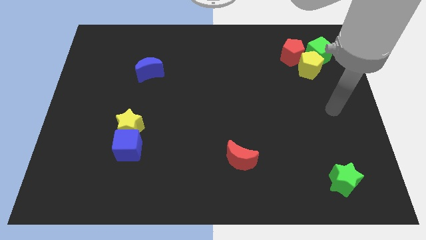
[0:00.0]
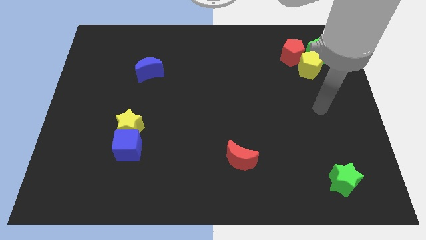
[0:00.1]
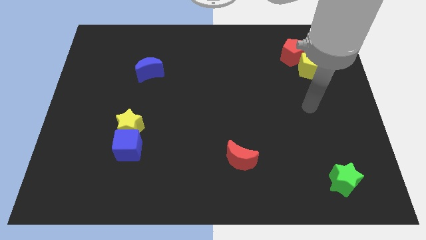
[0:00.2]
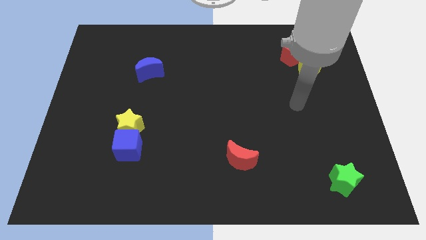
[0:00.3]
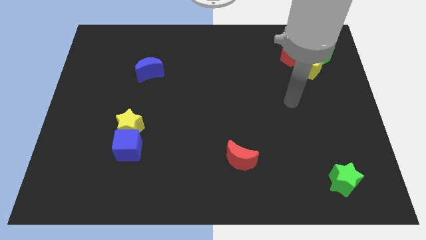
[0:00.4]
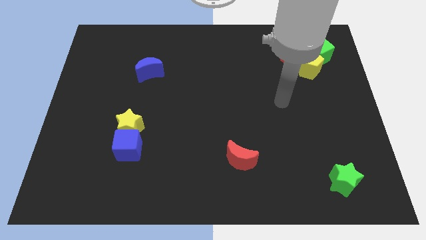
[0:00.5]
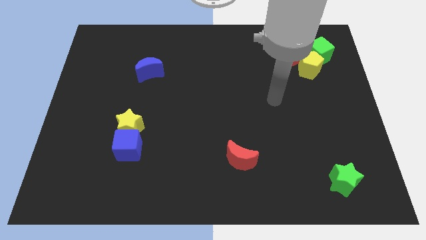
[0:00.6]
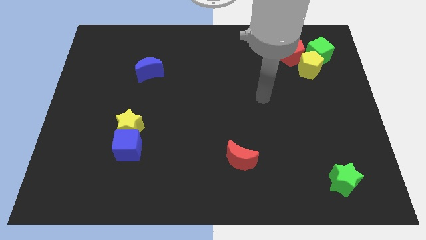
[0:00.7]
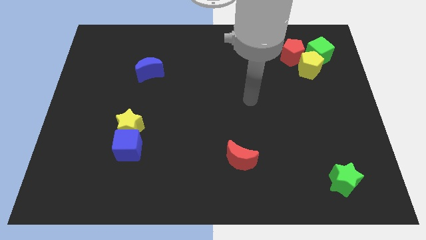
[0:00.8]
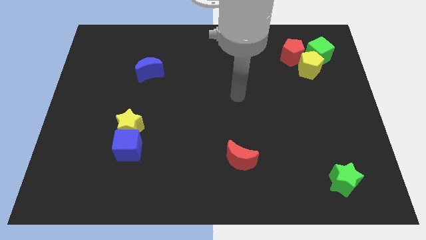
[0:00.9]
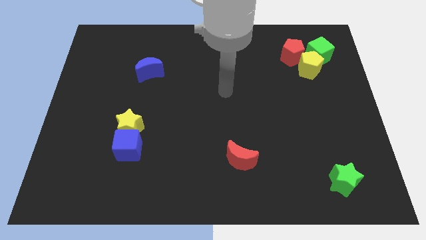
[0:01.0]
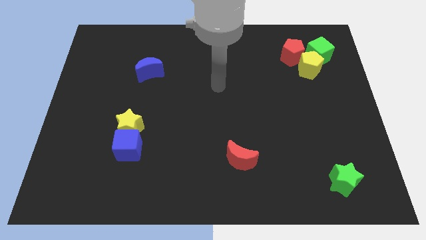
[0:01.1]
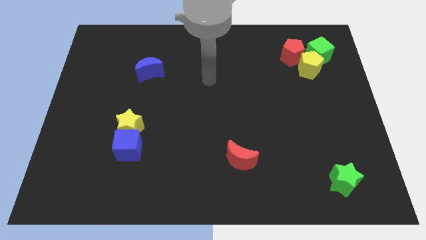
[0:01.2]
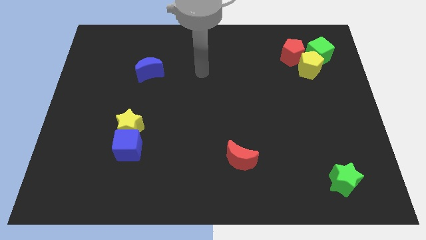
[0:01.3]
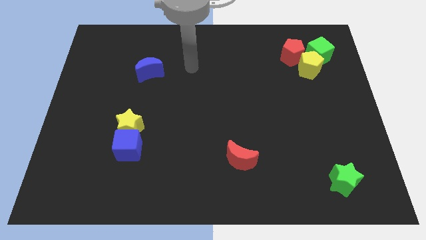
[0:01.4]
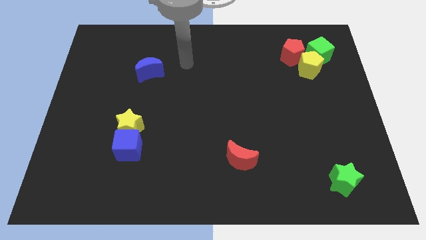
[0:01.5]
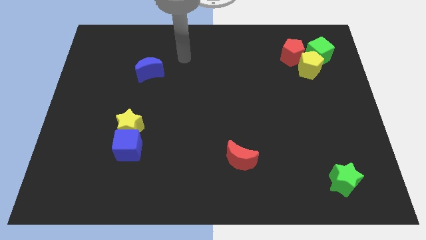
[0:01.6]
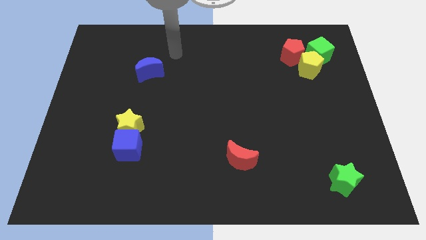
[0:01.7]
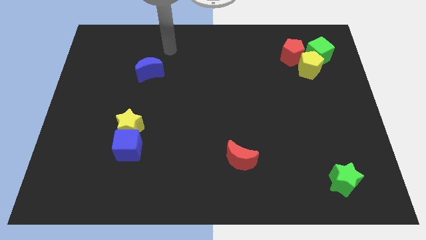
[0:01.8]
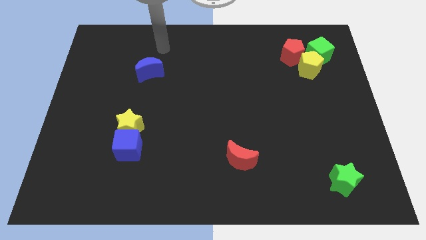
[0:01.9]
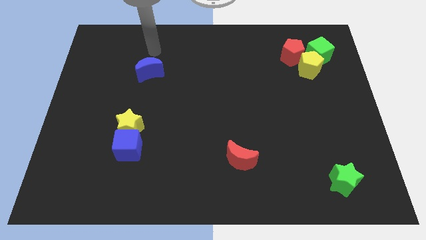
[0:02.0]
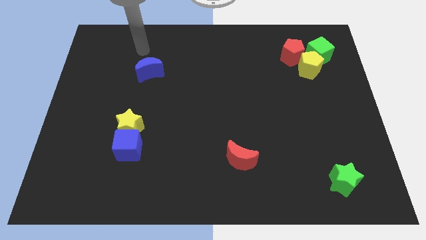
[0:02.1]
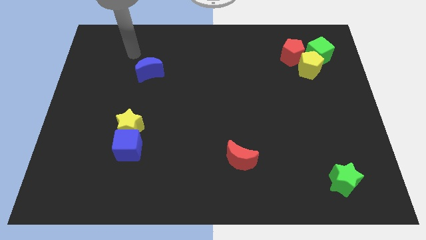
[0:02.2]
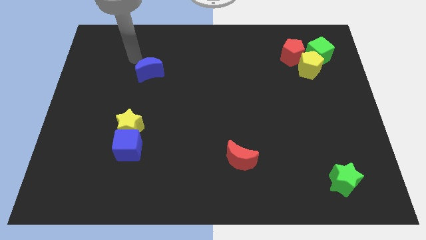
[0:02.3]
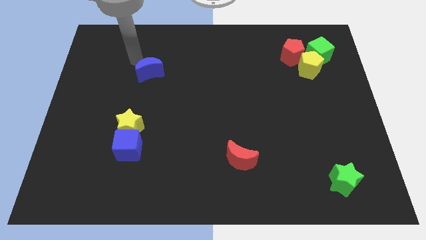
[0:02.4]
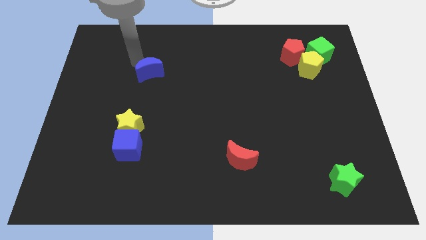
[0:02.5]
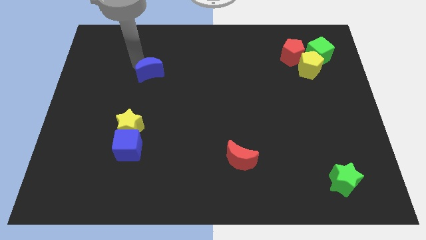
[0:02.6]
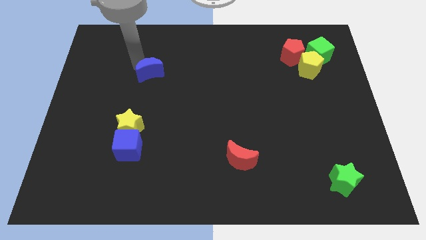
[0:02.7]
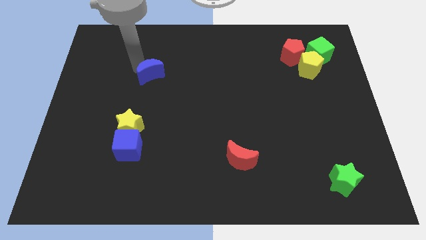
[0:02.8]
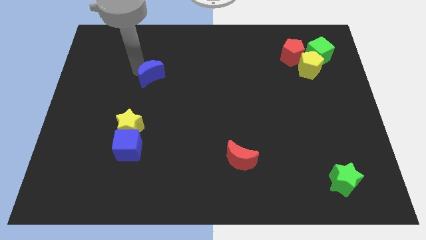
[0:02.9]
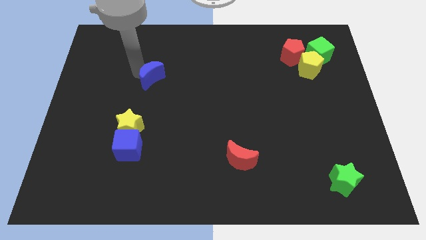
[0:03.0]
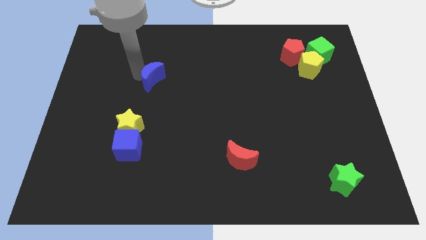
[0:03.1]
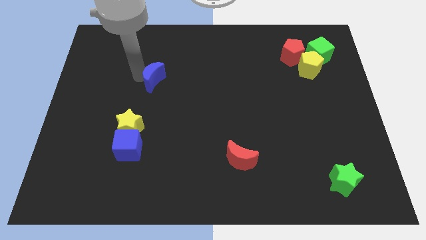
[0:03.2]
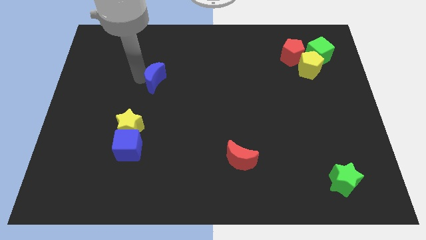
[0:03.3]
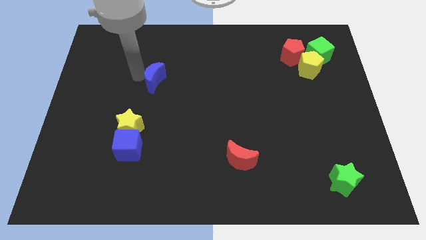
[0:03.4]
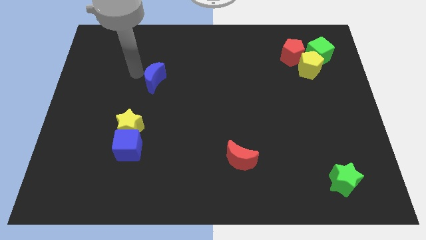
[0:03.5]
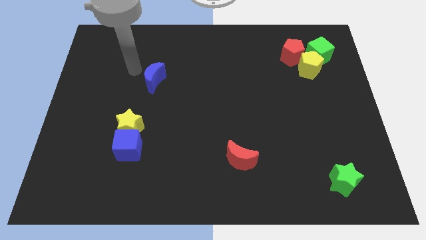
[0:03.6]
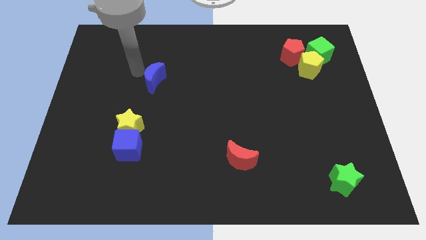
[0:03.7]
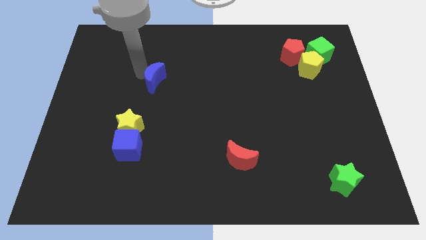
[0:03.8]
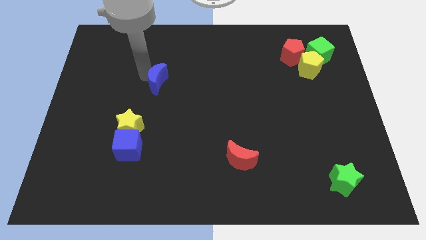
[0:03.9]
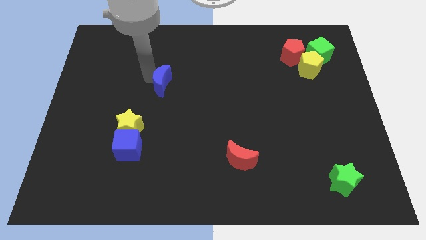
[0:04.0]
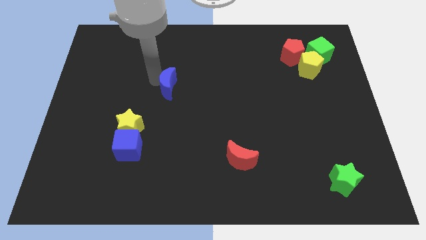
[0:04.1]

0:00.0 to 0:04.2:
push the blue moon down and to the right a bit

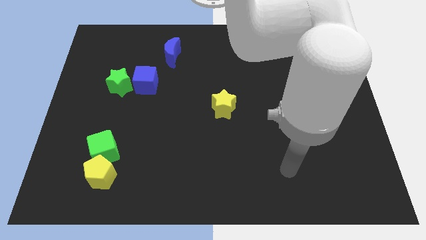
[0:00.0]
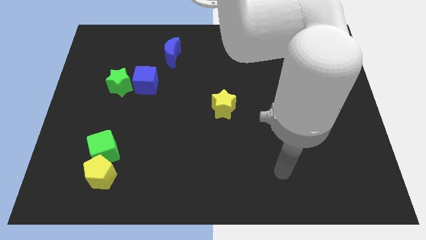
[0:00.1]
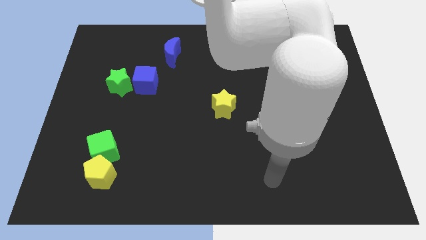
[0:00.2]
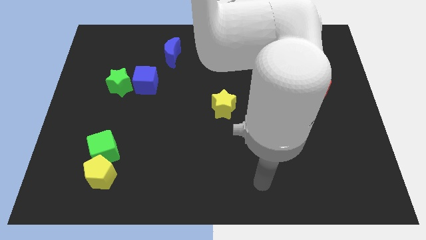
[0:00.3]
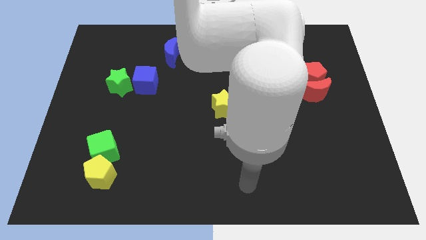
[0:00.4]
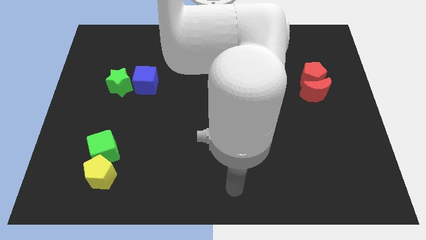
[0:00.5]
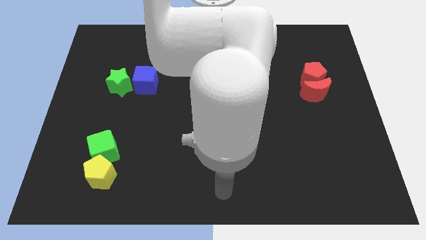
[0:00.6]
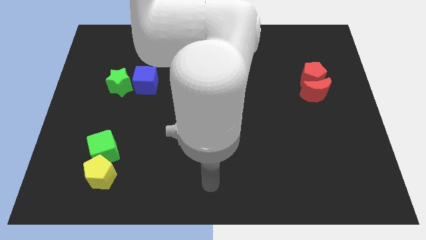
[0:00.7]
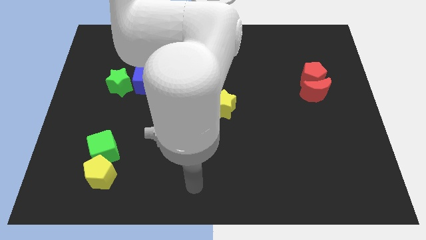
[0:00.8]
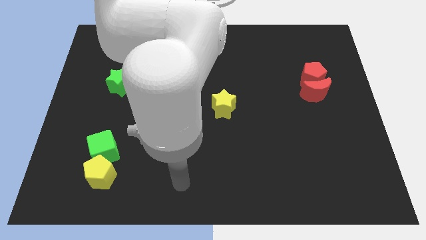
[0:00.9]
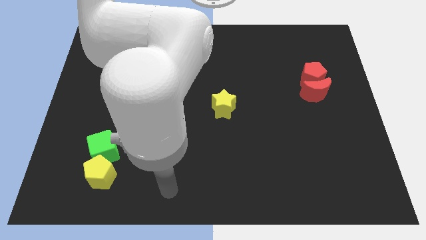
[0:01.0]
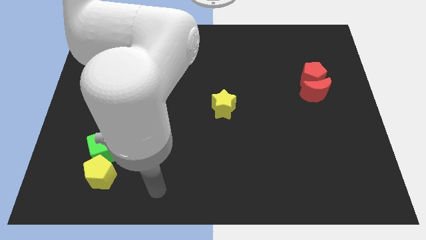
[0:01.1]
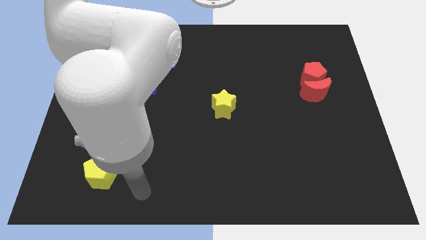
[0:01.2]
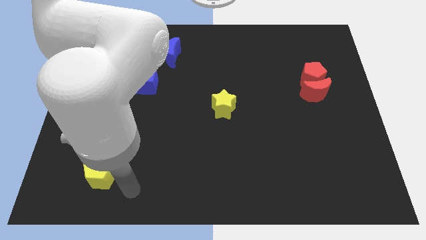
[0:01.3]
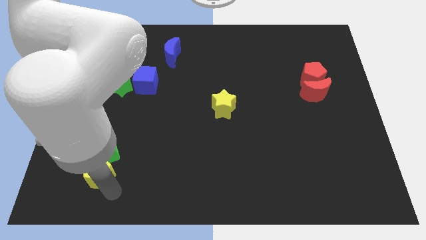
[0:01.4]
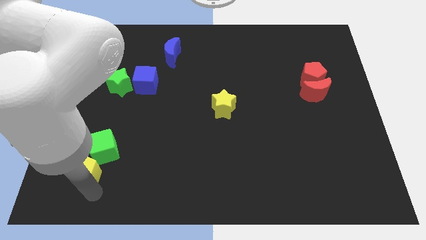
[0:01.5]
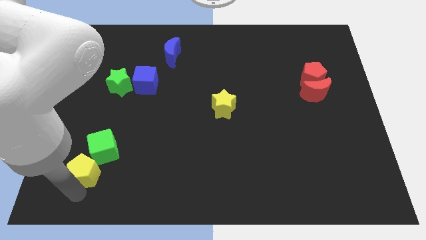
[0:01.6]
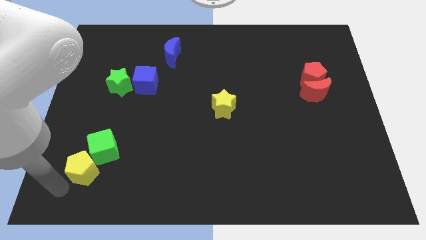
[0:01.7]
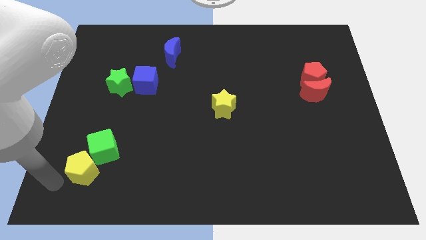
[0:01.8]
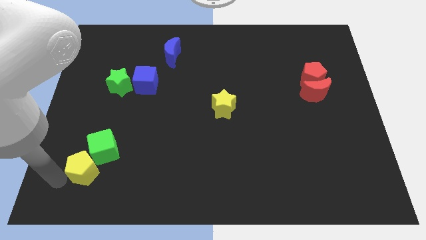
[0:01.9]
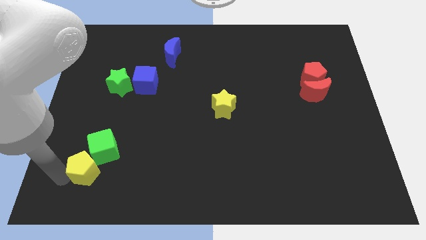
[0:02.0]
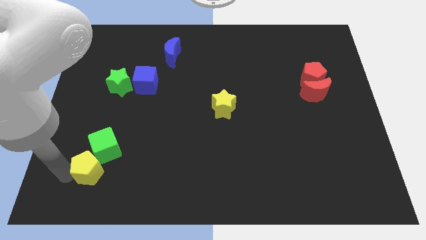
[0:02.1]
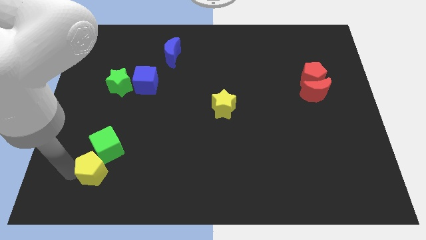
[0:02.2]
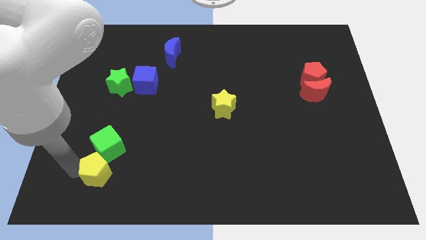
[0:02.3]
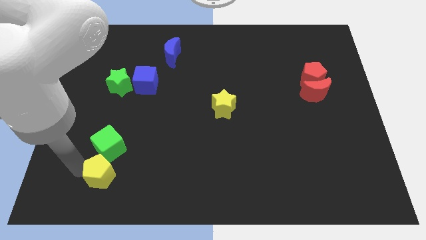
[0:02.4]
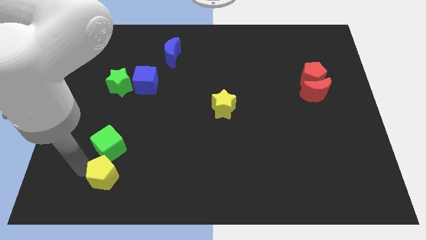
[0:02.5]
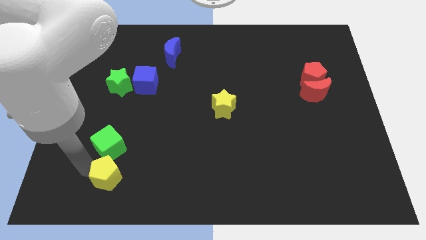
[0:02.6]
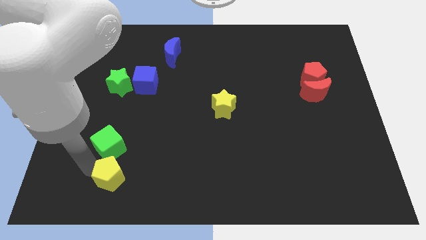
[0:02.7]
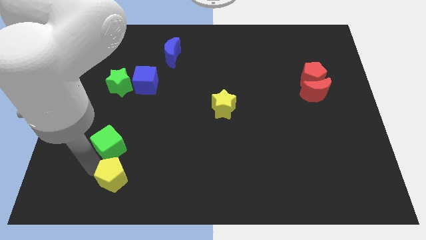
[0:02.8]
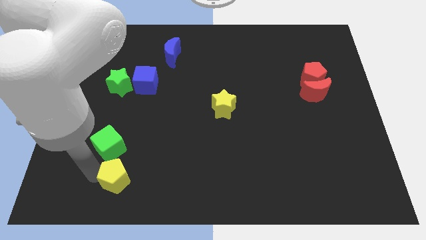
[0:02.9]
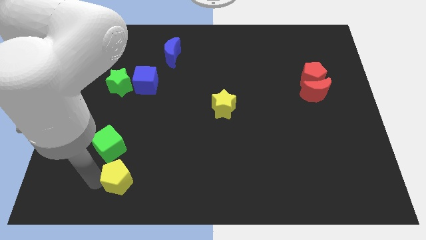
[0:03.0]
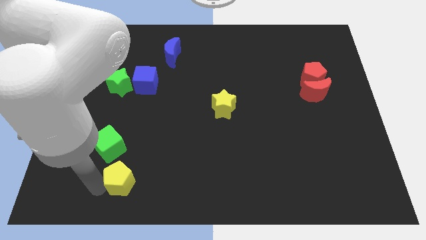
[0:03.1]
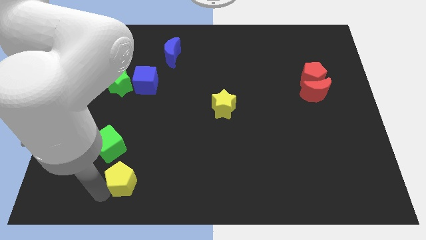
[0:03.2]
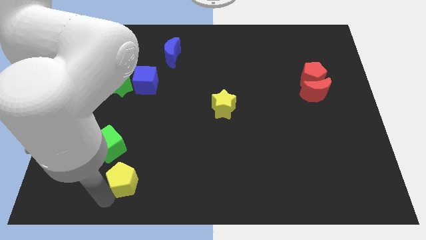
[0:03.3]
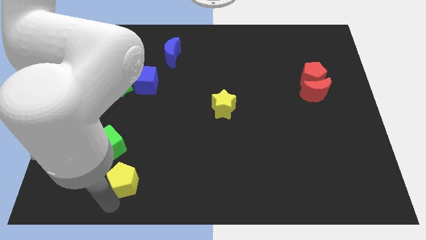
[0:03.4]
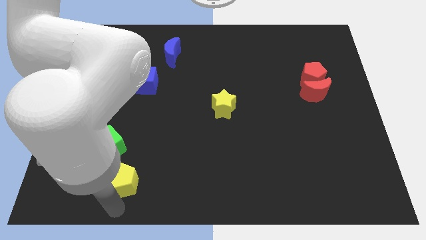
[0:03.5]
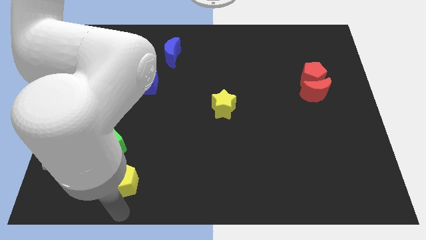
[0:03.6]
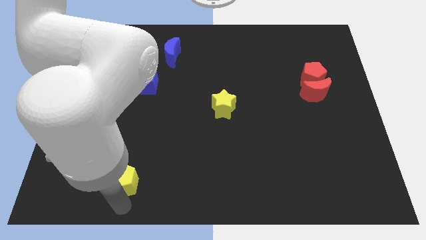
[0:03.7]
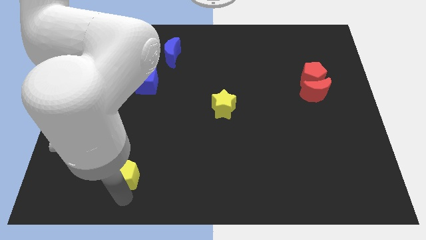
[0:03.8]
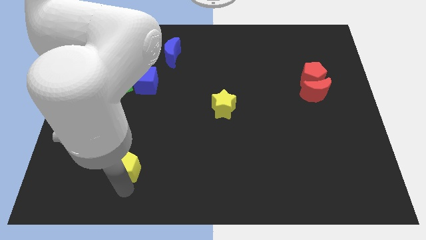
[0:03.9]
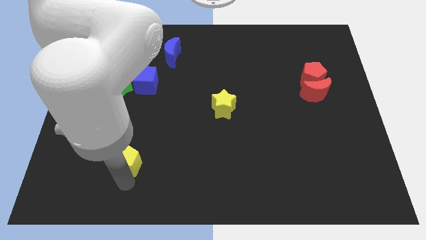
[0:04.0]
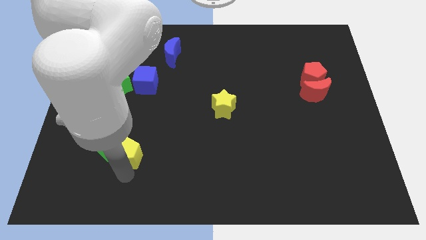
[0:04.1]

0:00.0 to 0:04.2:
move the yellow pentagon a little upwards and to the right

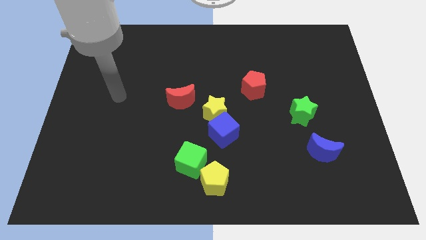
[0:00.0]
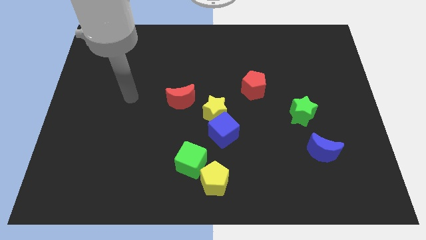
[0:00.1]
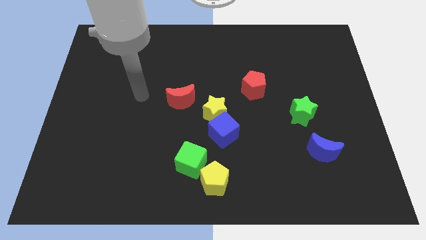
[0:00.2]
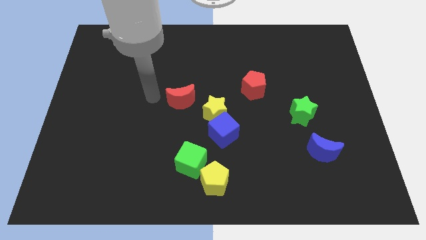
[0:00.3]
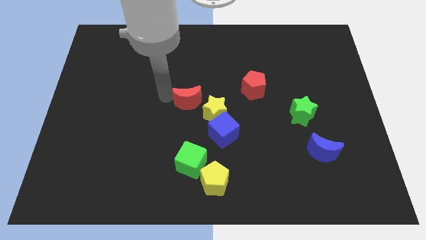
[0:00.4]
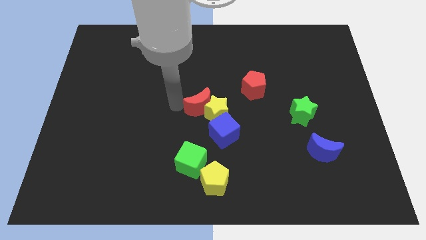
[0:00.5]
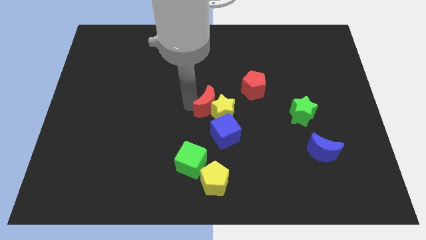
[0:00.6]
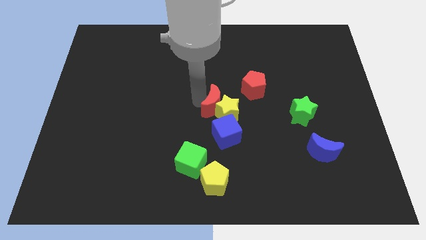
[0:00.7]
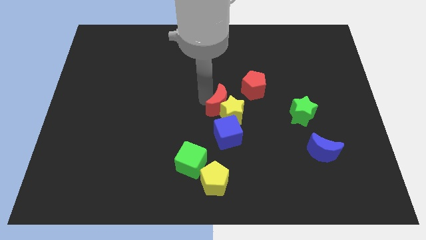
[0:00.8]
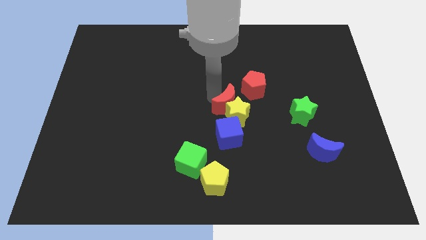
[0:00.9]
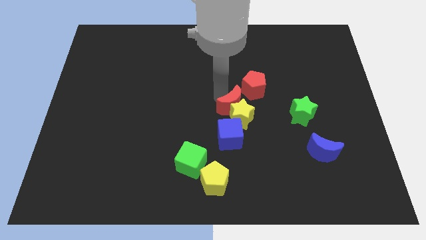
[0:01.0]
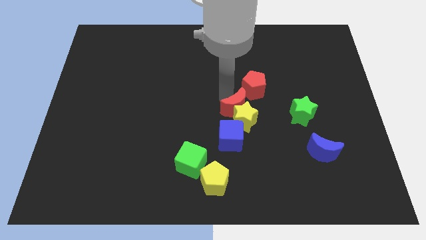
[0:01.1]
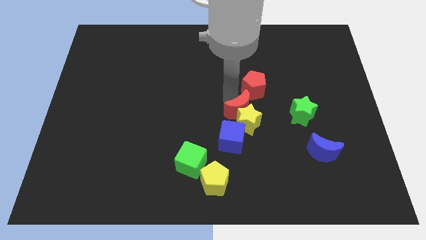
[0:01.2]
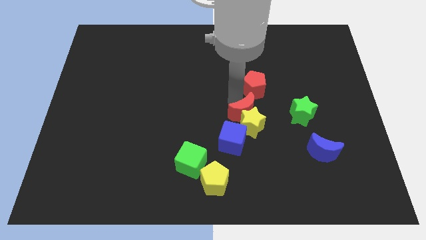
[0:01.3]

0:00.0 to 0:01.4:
slightly move the yellow star down and right diagonally
